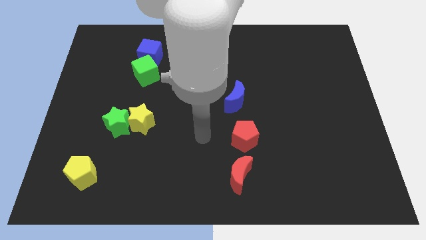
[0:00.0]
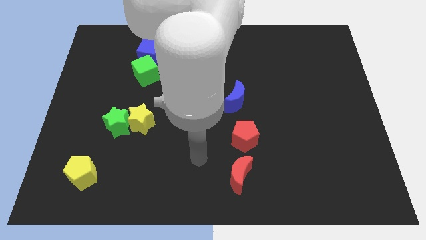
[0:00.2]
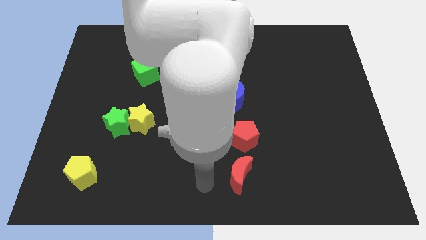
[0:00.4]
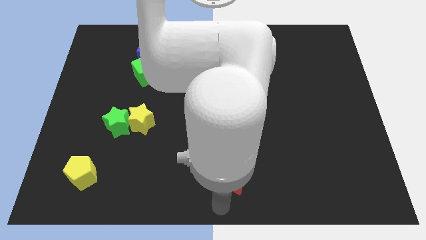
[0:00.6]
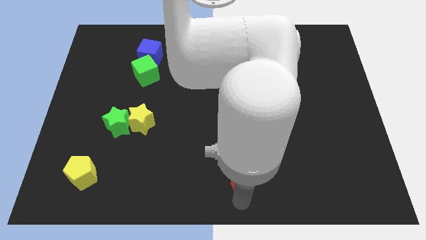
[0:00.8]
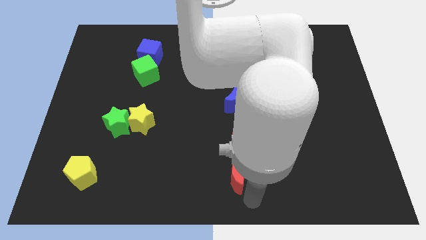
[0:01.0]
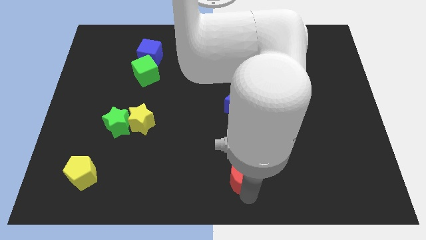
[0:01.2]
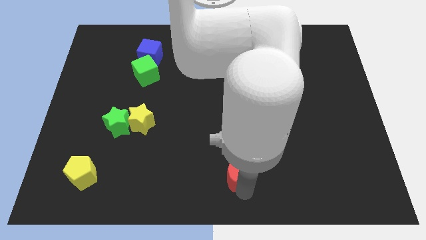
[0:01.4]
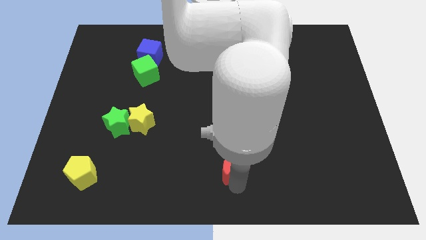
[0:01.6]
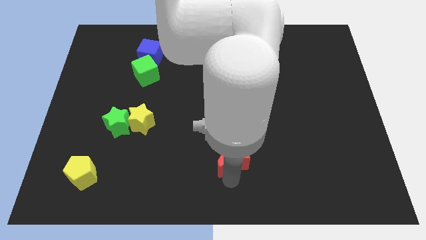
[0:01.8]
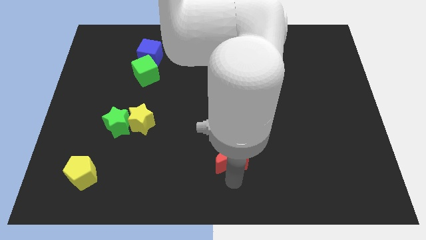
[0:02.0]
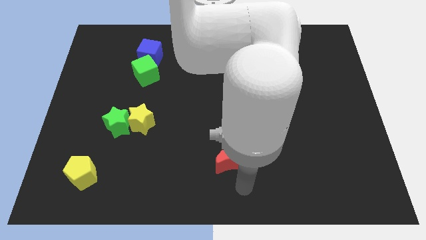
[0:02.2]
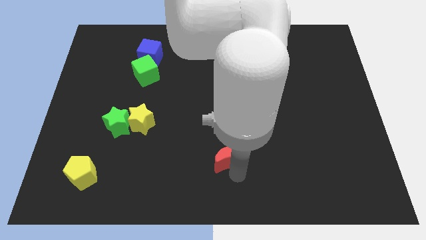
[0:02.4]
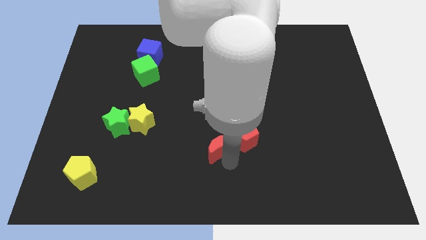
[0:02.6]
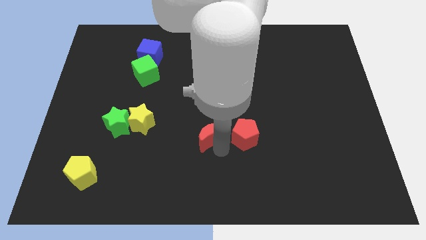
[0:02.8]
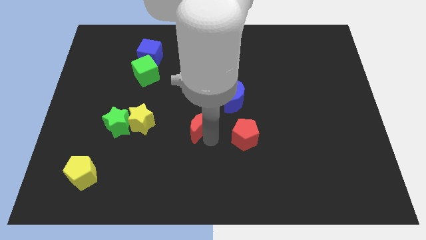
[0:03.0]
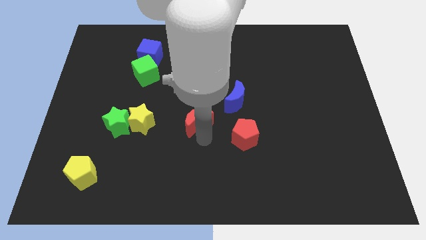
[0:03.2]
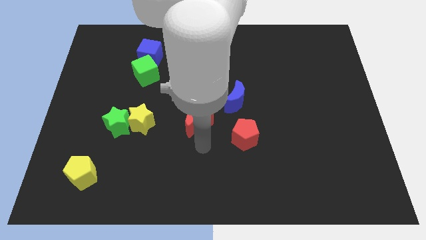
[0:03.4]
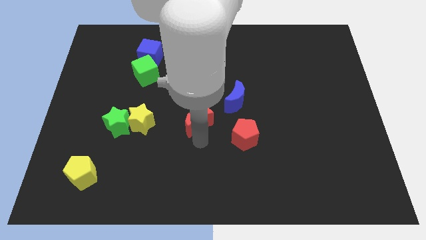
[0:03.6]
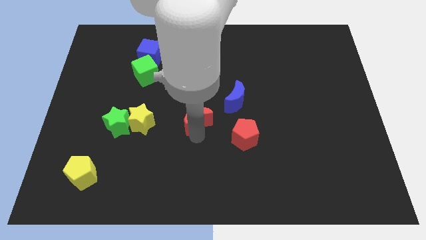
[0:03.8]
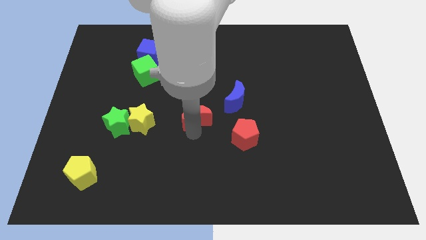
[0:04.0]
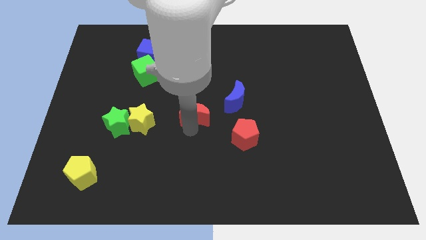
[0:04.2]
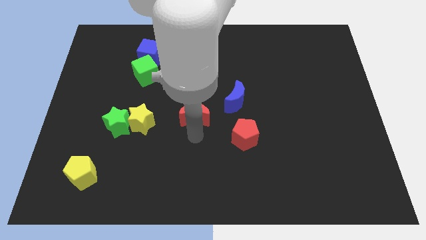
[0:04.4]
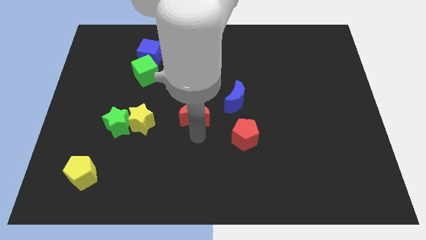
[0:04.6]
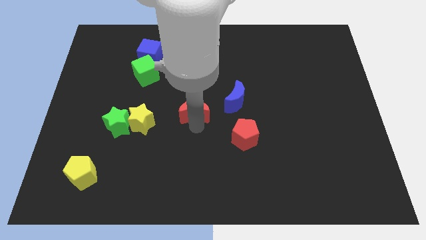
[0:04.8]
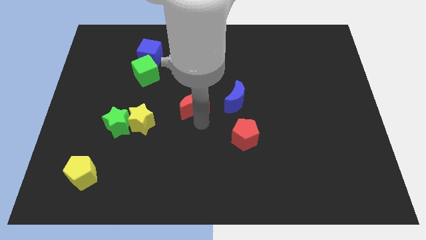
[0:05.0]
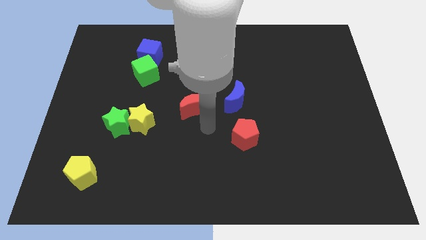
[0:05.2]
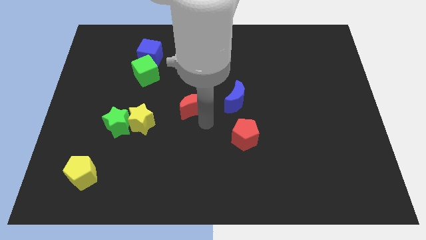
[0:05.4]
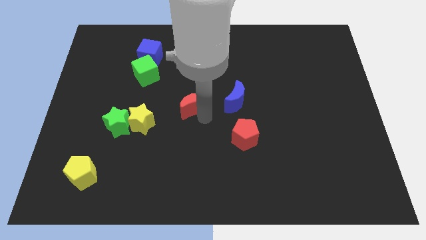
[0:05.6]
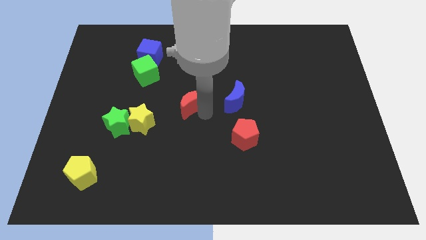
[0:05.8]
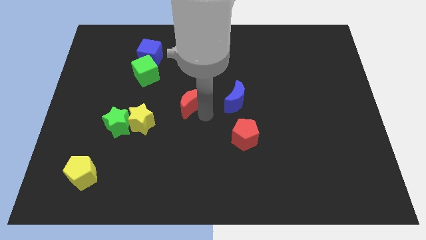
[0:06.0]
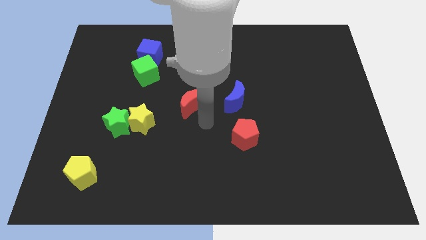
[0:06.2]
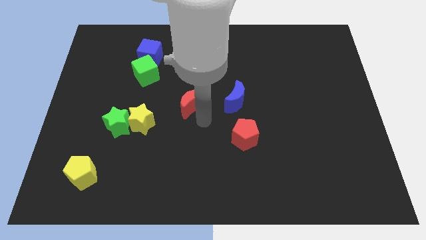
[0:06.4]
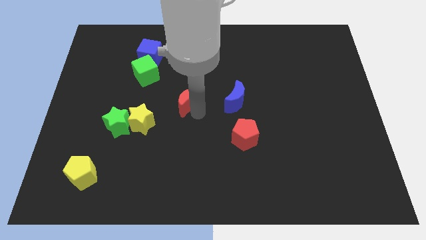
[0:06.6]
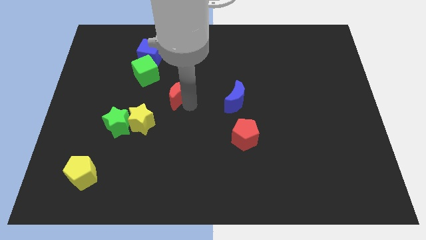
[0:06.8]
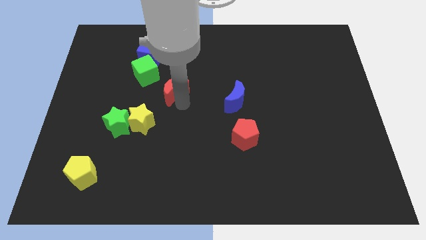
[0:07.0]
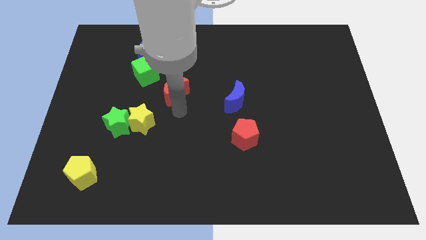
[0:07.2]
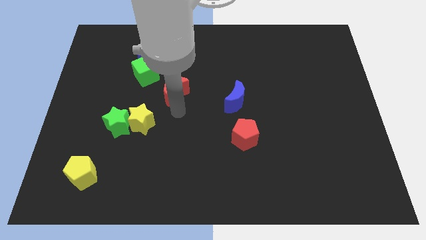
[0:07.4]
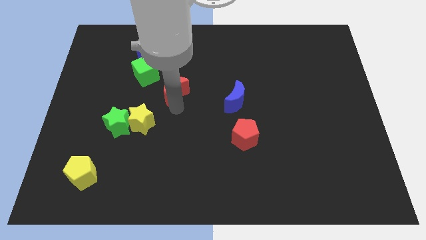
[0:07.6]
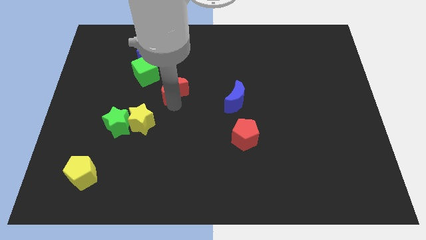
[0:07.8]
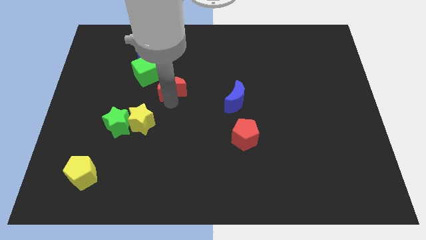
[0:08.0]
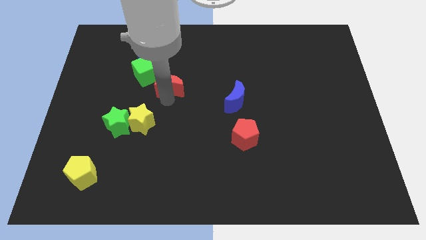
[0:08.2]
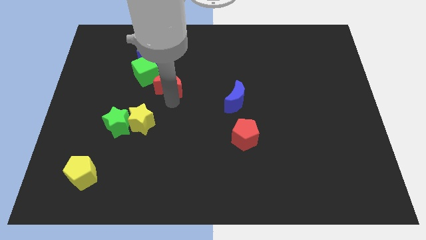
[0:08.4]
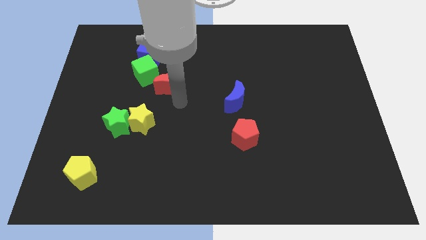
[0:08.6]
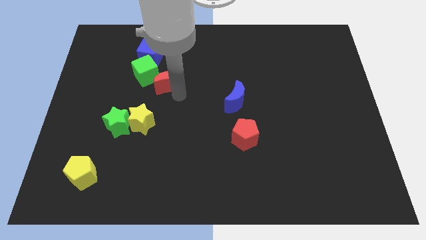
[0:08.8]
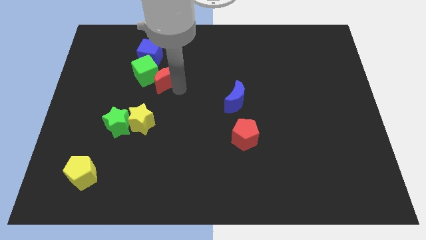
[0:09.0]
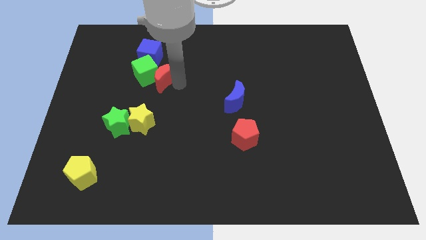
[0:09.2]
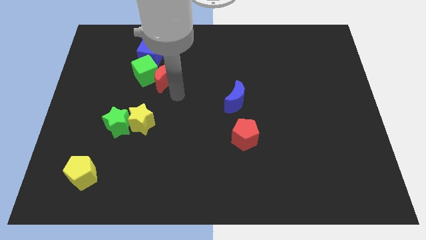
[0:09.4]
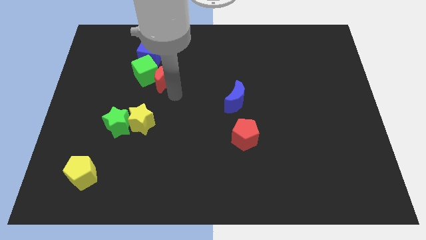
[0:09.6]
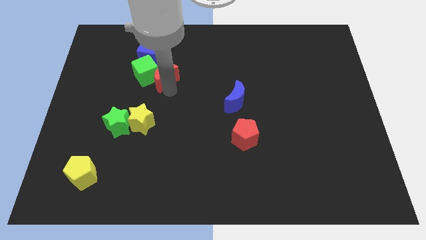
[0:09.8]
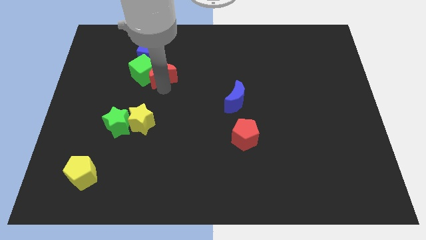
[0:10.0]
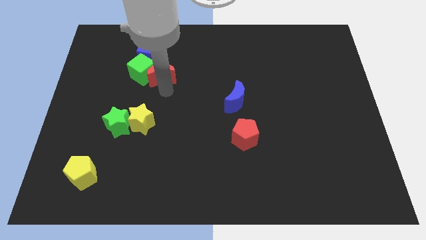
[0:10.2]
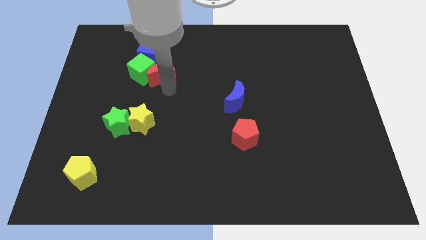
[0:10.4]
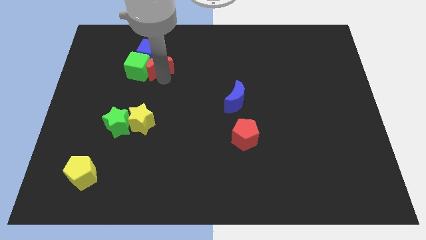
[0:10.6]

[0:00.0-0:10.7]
move the red moon close to the blue cube

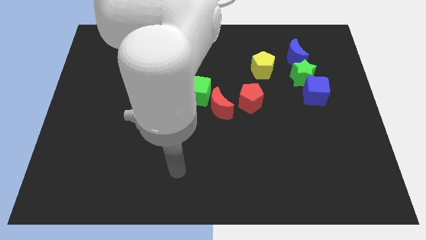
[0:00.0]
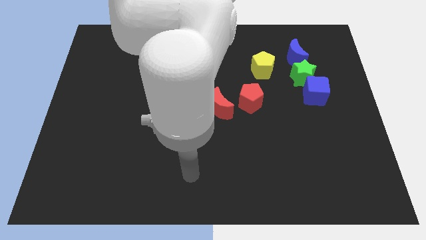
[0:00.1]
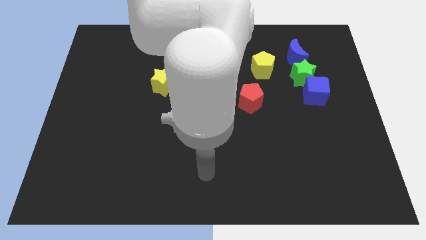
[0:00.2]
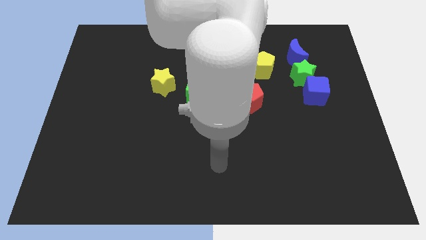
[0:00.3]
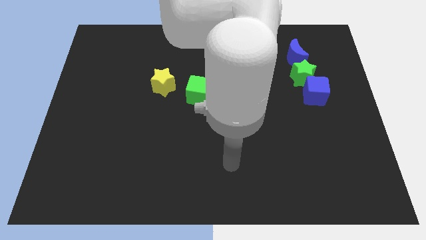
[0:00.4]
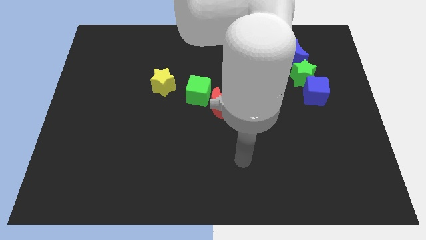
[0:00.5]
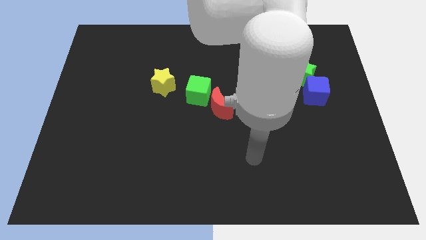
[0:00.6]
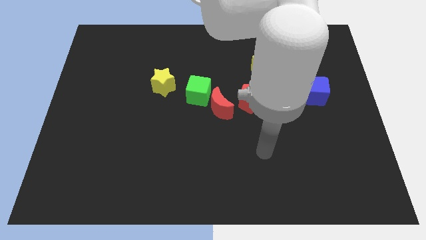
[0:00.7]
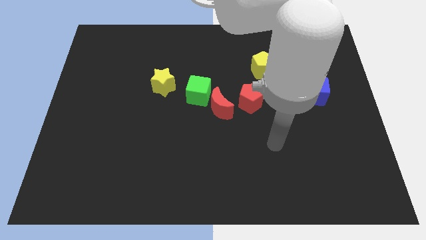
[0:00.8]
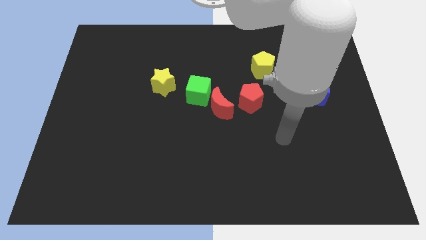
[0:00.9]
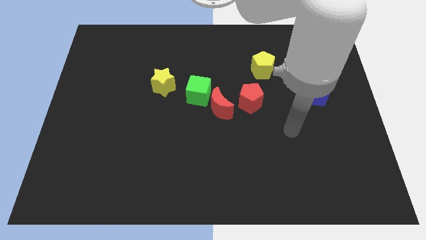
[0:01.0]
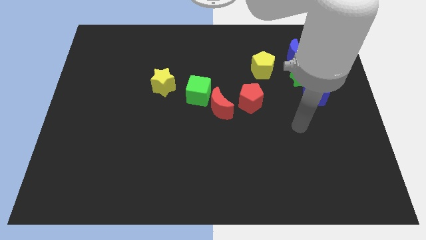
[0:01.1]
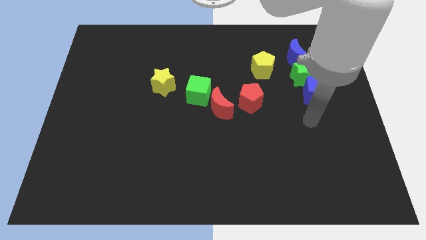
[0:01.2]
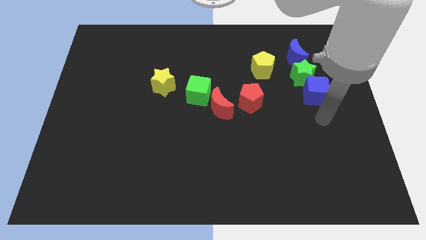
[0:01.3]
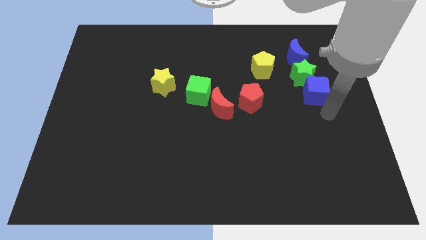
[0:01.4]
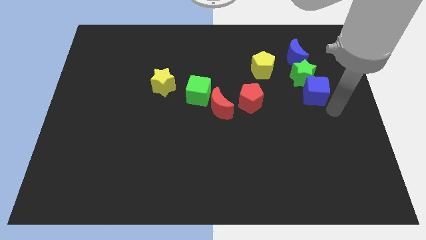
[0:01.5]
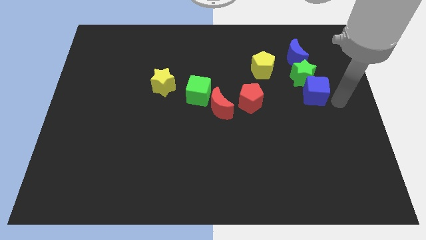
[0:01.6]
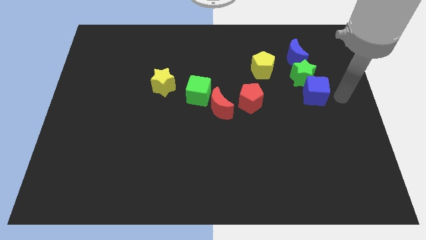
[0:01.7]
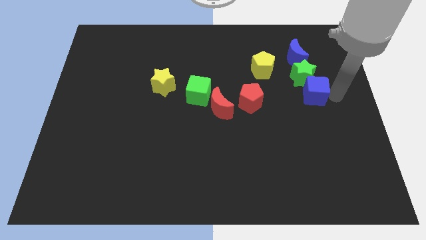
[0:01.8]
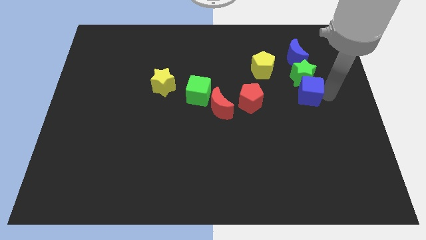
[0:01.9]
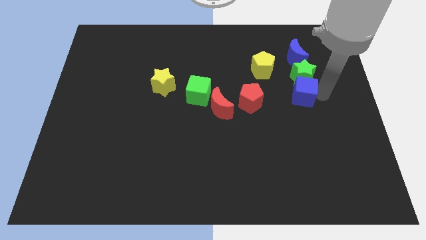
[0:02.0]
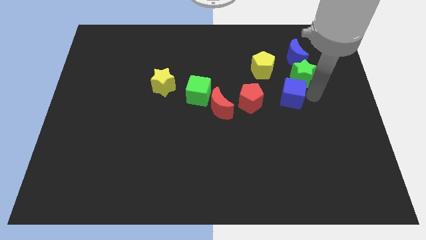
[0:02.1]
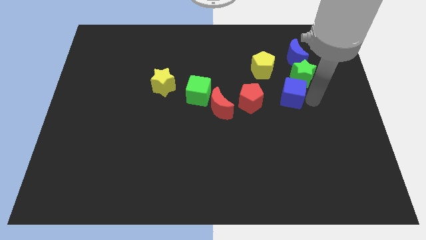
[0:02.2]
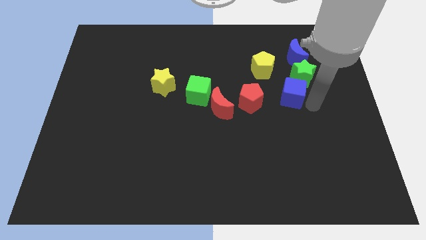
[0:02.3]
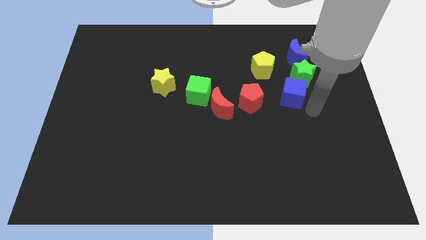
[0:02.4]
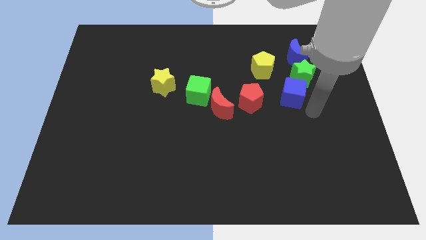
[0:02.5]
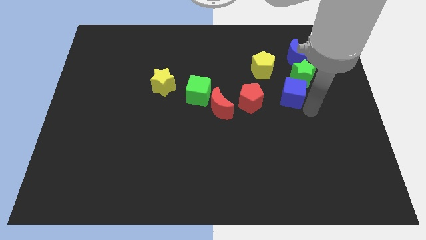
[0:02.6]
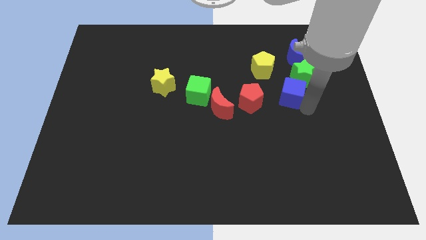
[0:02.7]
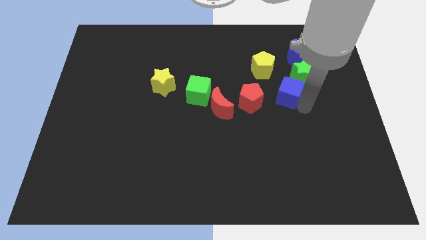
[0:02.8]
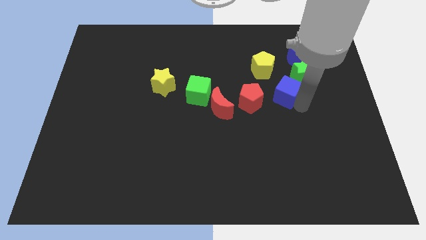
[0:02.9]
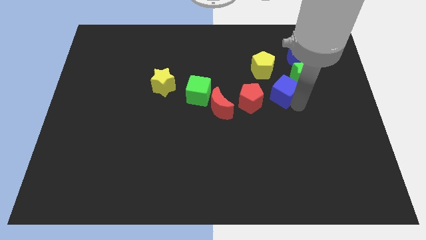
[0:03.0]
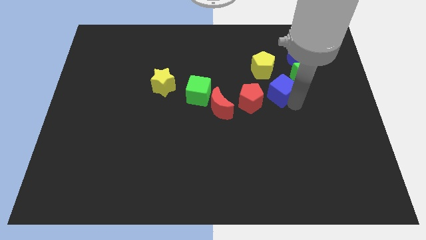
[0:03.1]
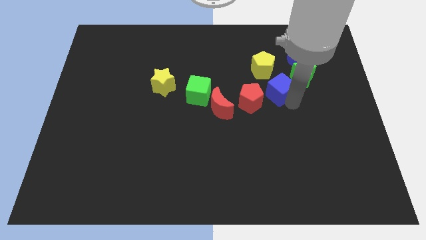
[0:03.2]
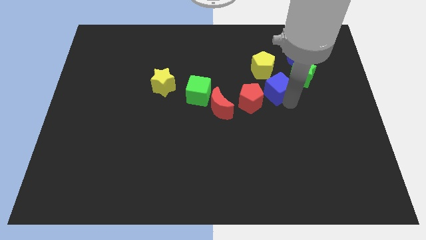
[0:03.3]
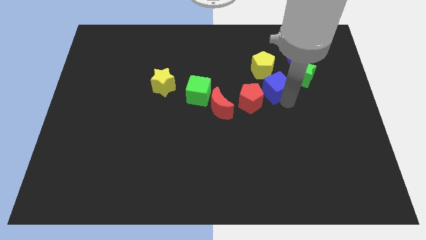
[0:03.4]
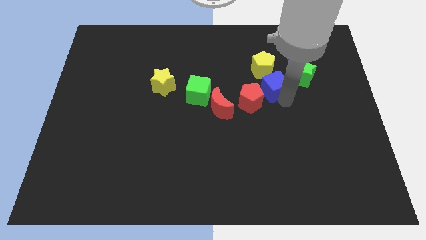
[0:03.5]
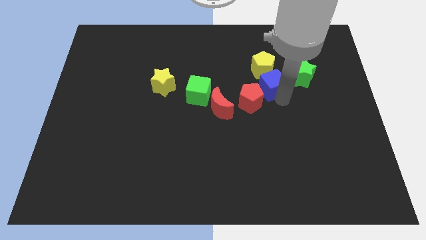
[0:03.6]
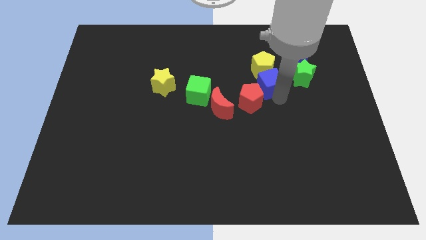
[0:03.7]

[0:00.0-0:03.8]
put the blue cube towards the yellow pentagon
